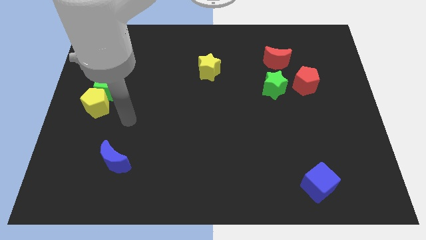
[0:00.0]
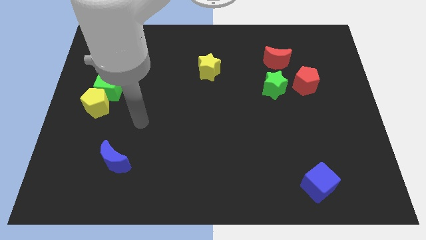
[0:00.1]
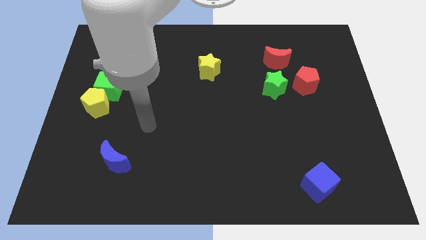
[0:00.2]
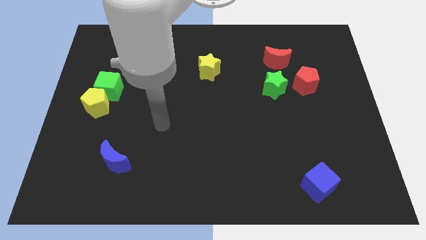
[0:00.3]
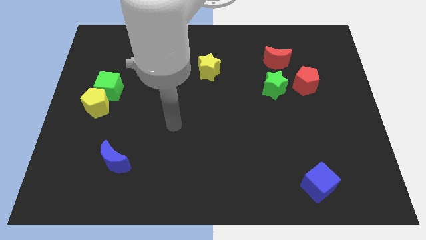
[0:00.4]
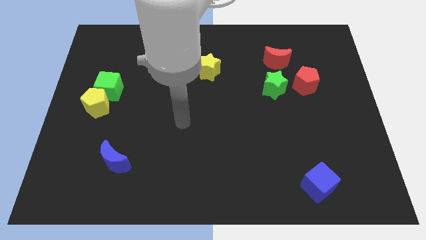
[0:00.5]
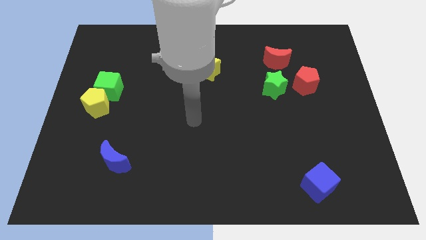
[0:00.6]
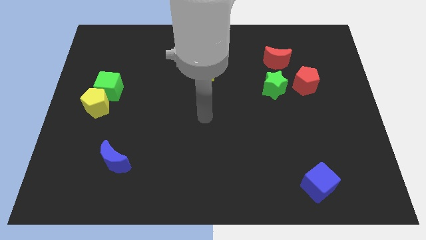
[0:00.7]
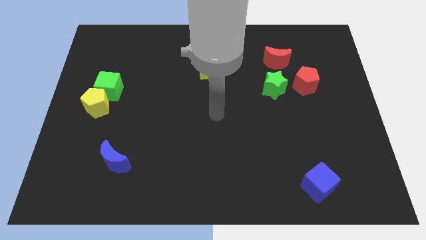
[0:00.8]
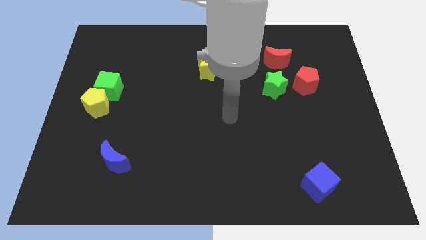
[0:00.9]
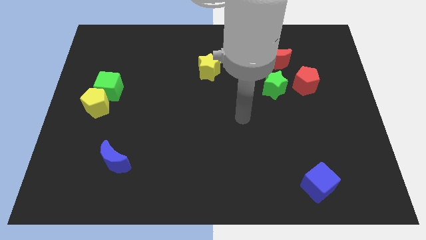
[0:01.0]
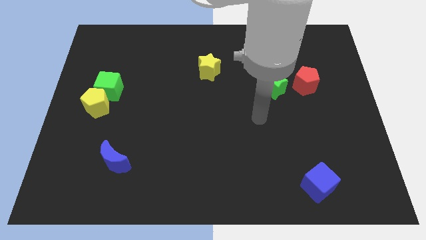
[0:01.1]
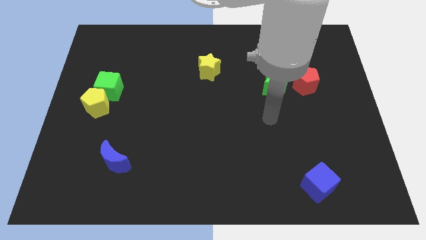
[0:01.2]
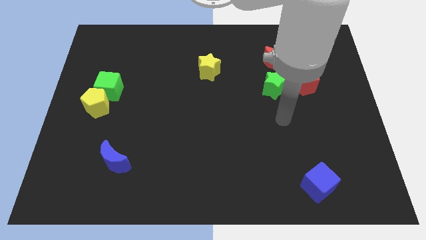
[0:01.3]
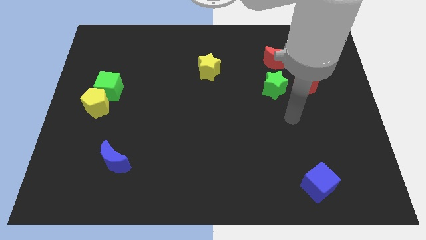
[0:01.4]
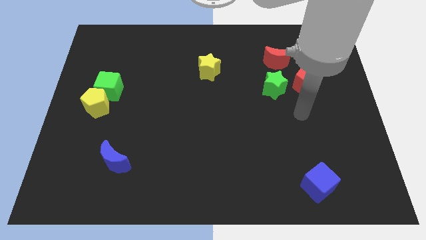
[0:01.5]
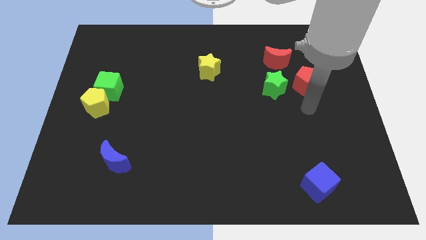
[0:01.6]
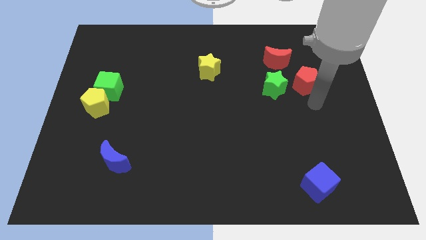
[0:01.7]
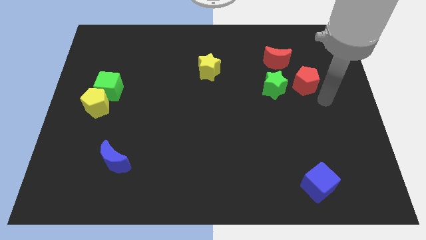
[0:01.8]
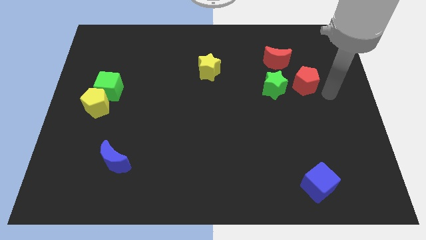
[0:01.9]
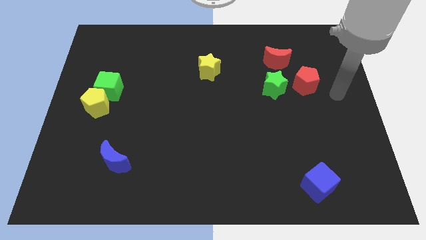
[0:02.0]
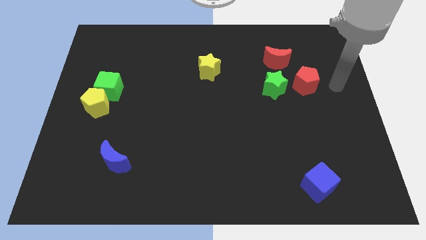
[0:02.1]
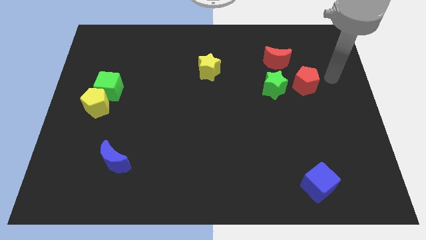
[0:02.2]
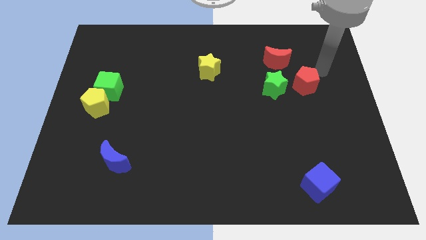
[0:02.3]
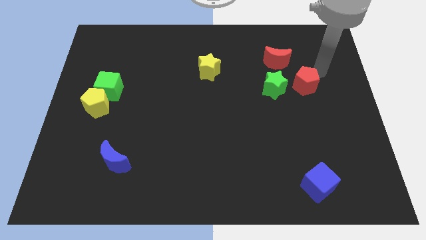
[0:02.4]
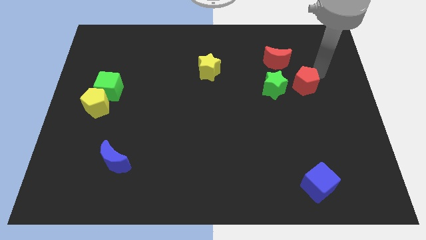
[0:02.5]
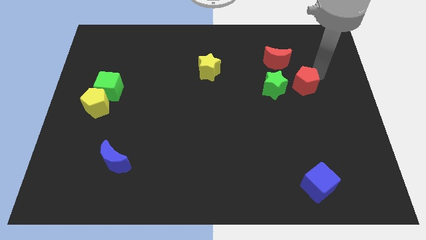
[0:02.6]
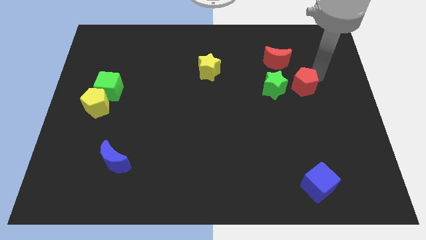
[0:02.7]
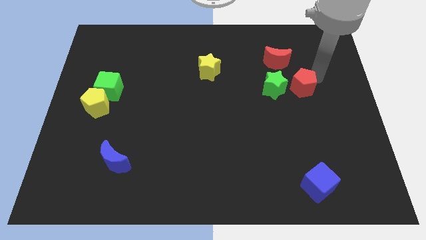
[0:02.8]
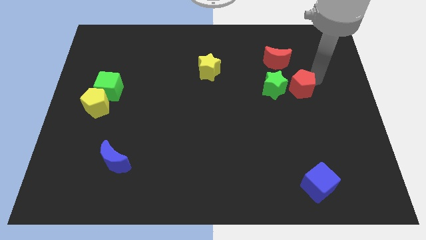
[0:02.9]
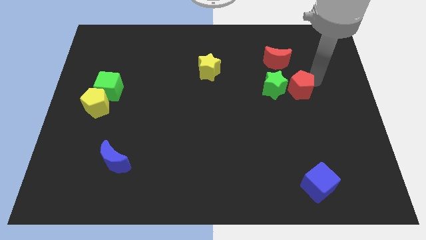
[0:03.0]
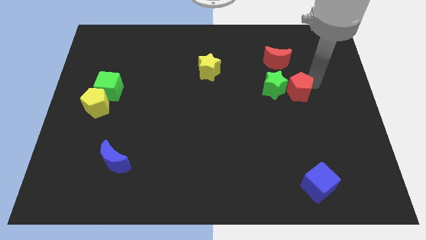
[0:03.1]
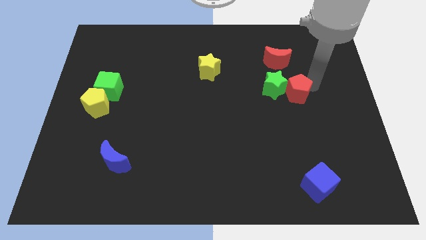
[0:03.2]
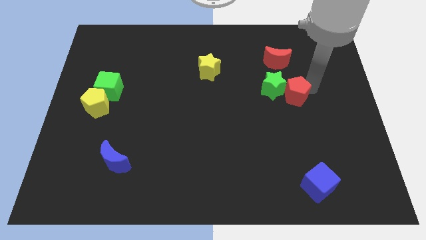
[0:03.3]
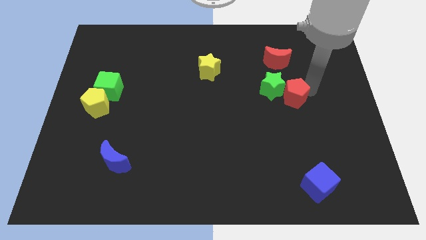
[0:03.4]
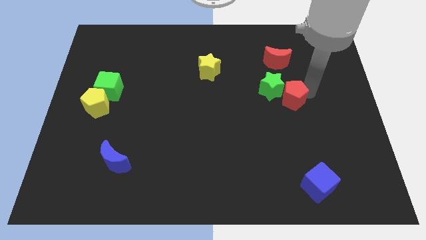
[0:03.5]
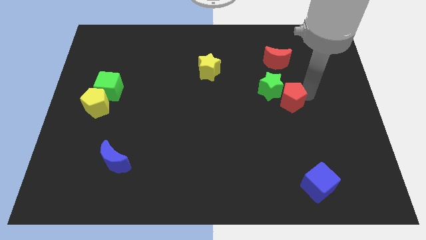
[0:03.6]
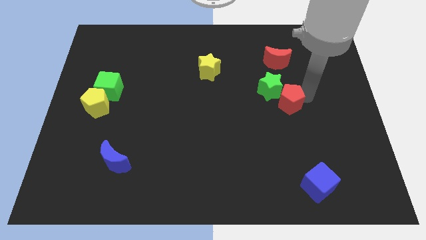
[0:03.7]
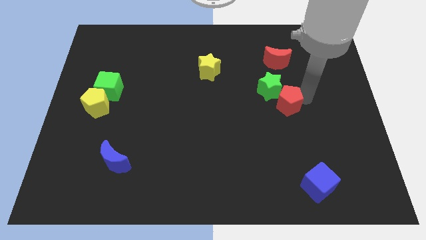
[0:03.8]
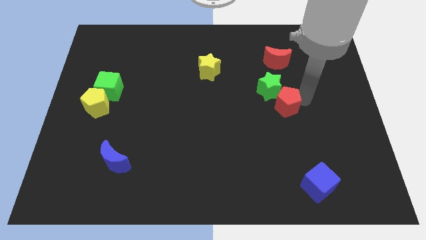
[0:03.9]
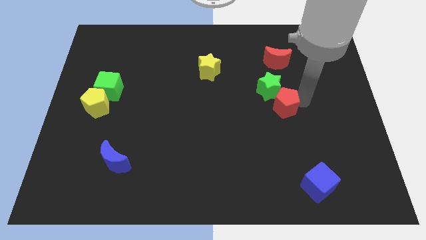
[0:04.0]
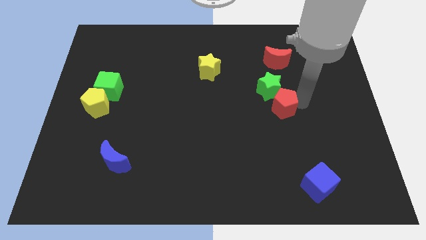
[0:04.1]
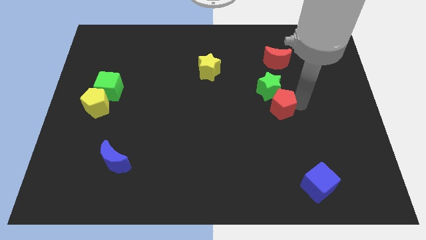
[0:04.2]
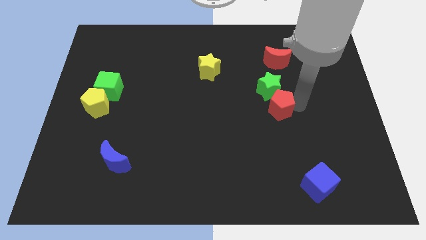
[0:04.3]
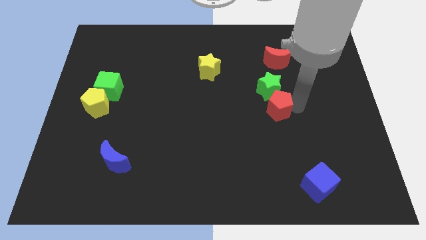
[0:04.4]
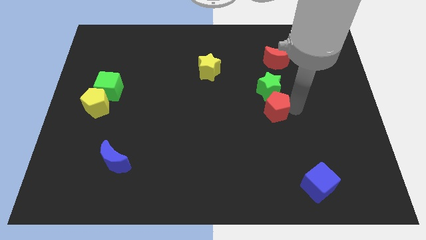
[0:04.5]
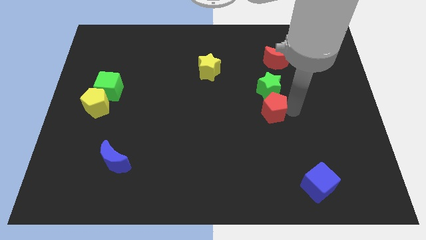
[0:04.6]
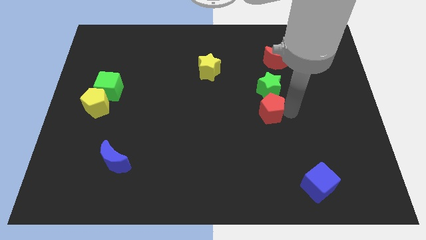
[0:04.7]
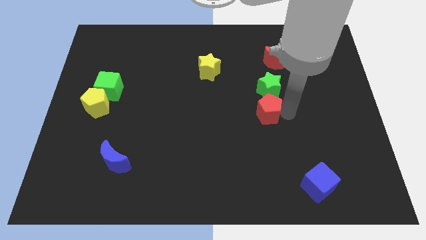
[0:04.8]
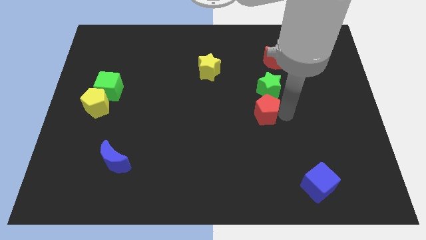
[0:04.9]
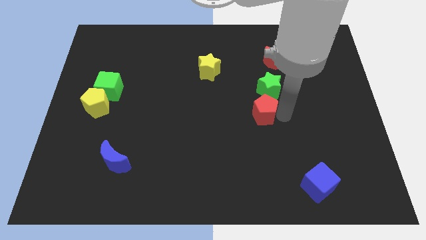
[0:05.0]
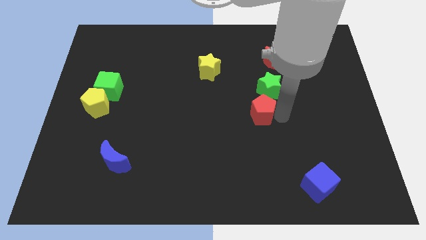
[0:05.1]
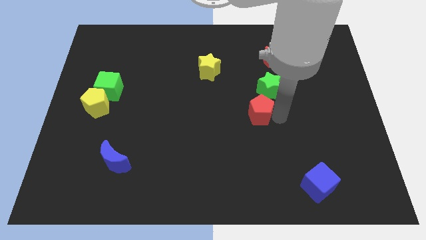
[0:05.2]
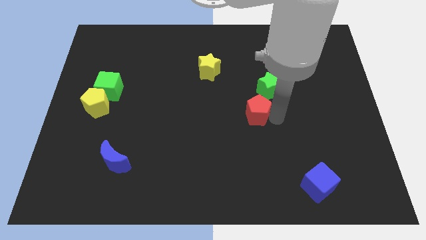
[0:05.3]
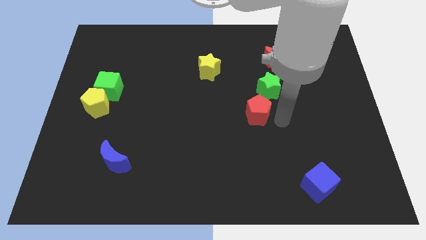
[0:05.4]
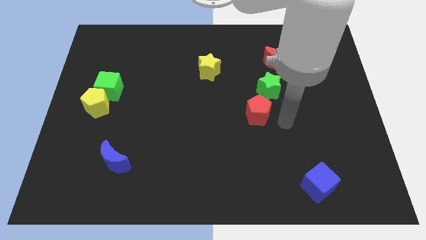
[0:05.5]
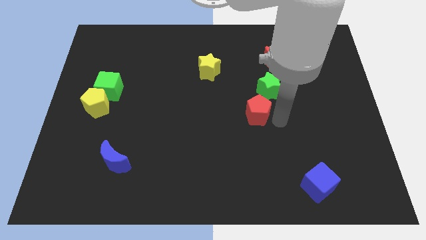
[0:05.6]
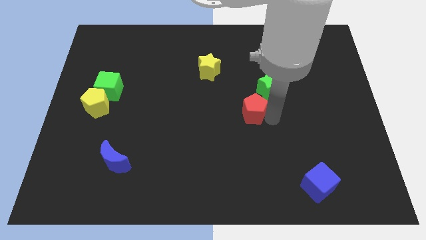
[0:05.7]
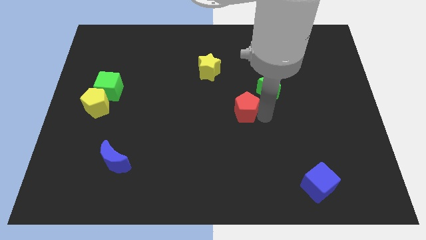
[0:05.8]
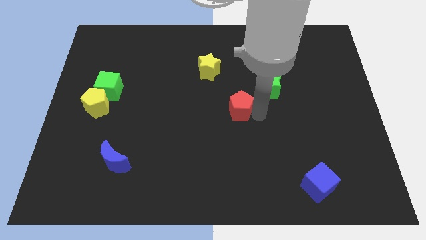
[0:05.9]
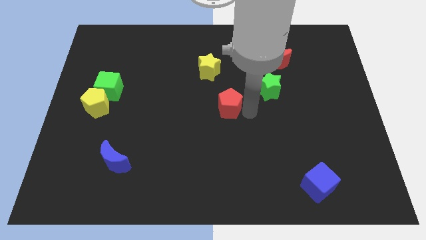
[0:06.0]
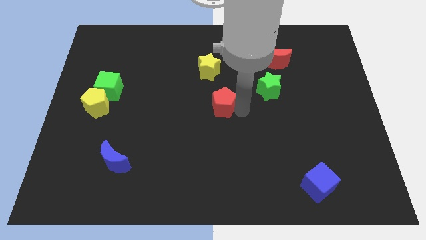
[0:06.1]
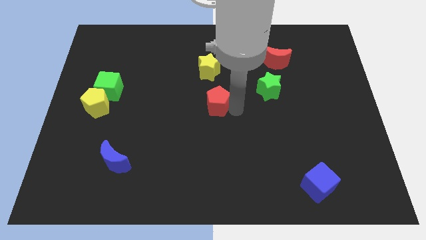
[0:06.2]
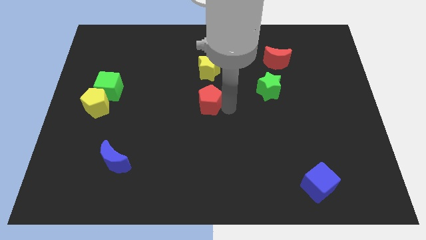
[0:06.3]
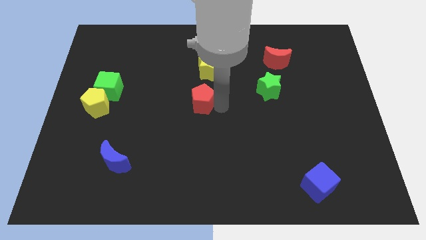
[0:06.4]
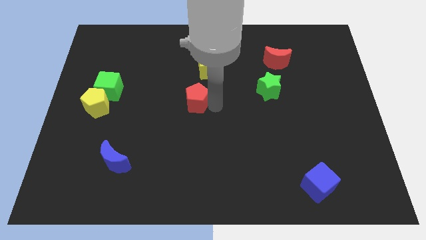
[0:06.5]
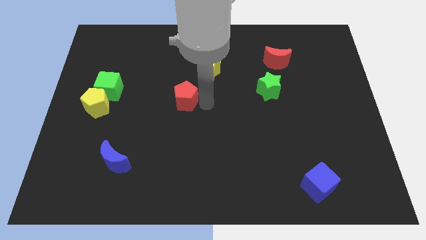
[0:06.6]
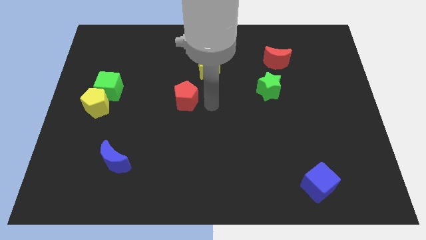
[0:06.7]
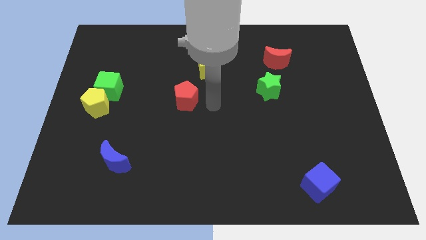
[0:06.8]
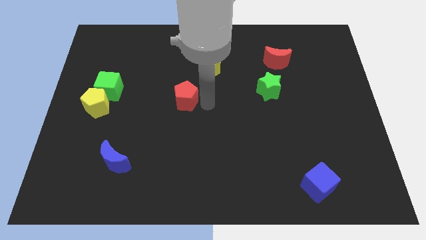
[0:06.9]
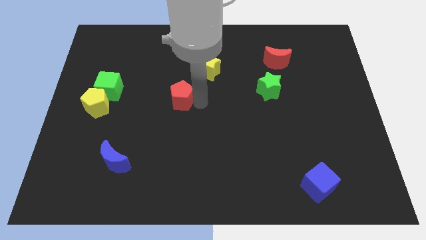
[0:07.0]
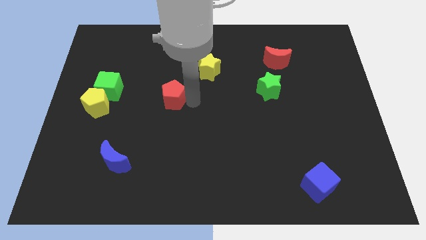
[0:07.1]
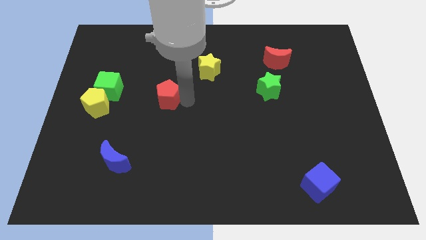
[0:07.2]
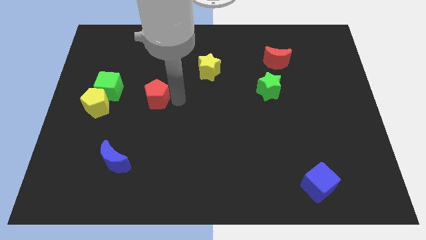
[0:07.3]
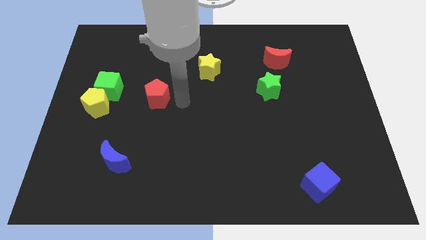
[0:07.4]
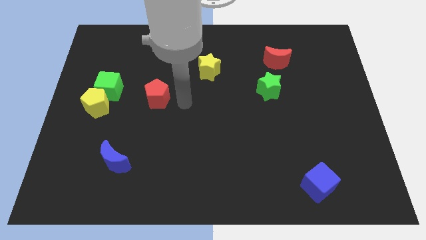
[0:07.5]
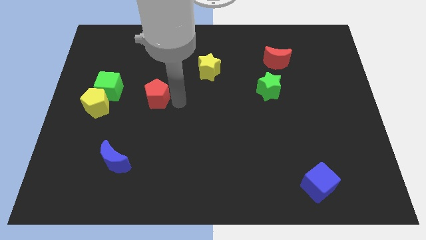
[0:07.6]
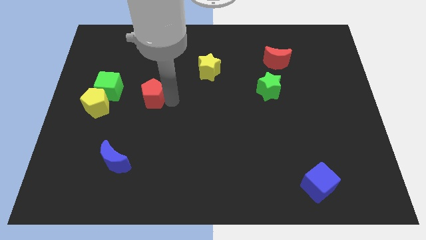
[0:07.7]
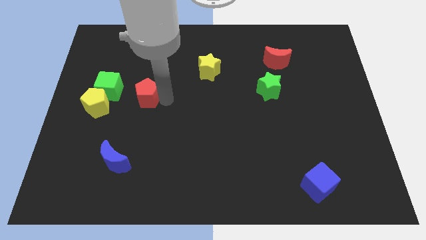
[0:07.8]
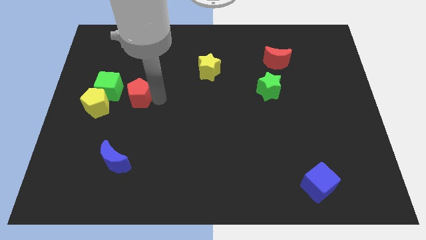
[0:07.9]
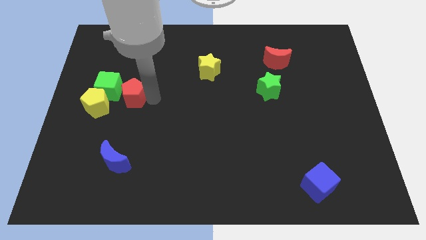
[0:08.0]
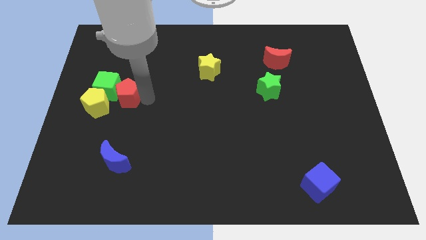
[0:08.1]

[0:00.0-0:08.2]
push the red pentagon towards the green cube

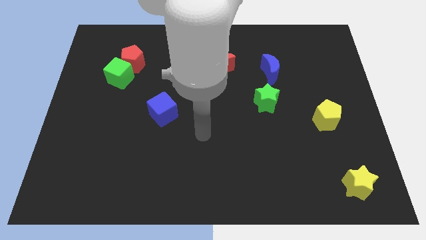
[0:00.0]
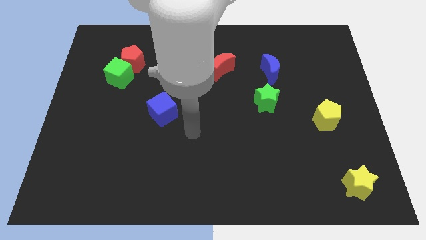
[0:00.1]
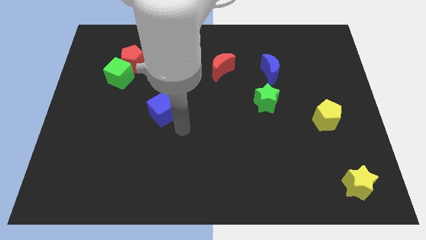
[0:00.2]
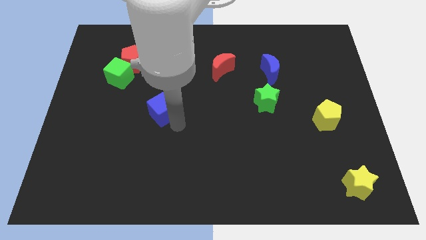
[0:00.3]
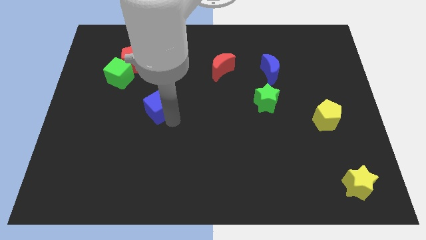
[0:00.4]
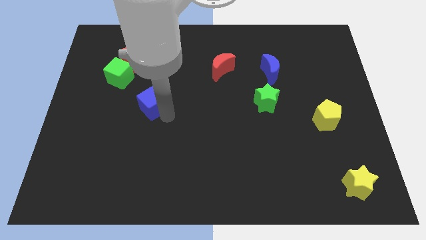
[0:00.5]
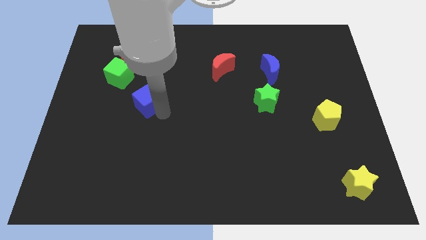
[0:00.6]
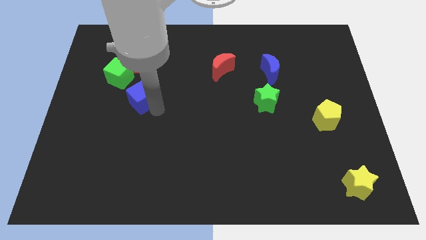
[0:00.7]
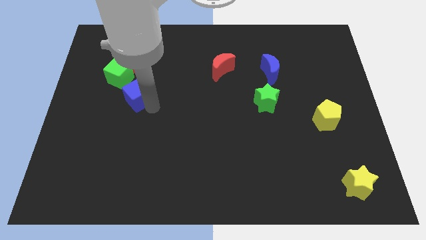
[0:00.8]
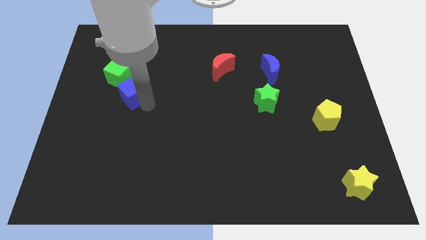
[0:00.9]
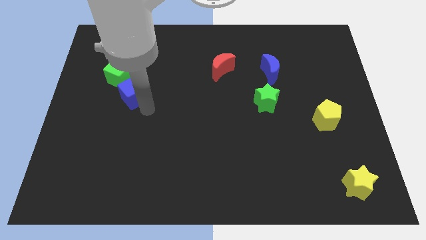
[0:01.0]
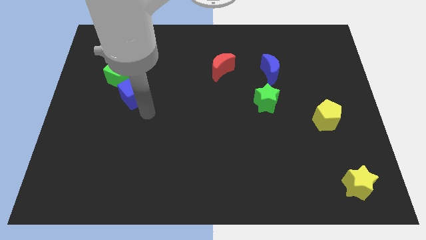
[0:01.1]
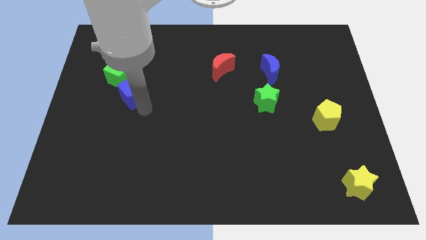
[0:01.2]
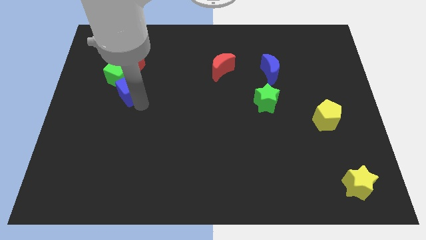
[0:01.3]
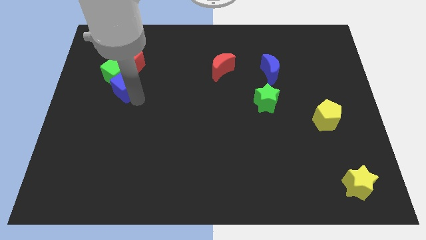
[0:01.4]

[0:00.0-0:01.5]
push the blue cube close to the green cube
